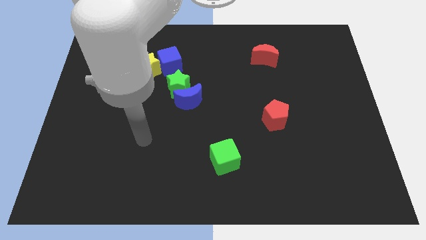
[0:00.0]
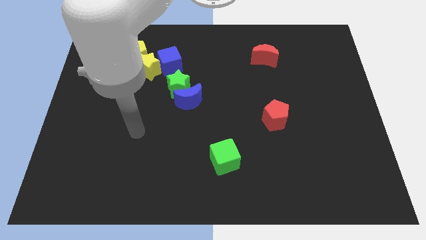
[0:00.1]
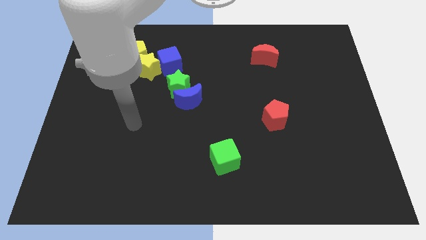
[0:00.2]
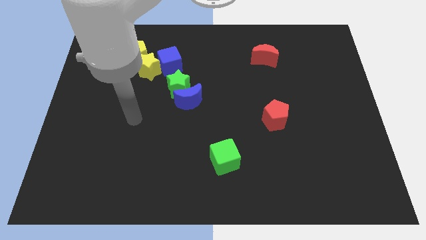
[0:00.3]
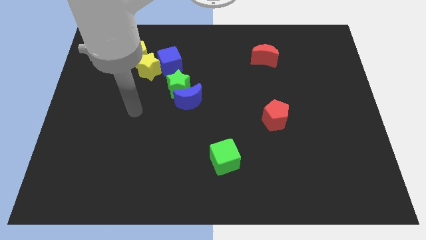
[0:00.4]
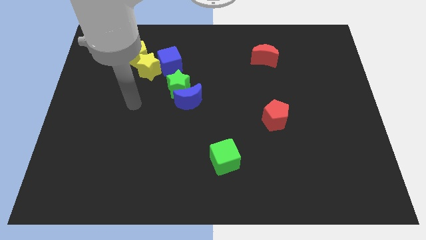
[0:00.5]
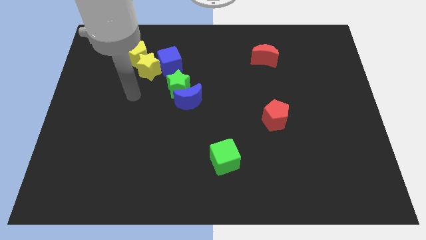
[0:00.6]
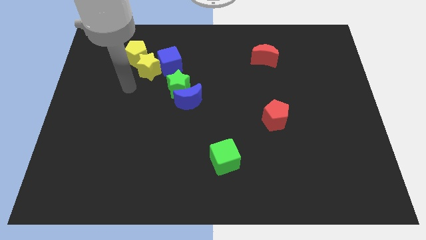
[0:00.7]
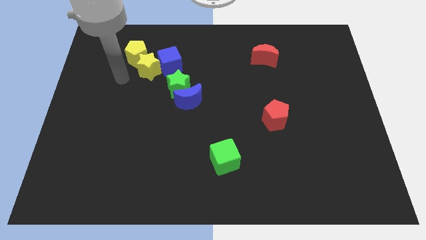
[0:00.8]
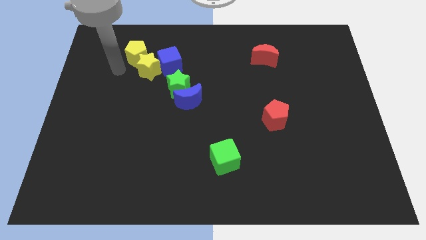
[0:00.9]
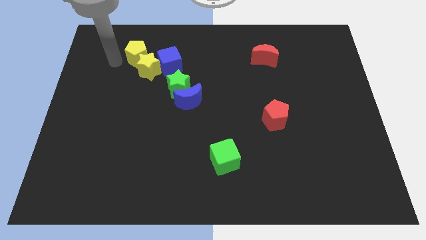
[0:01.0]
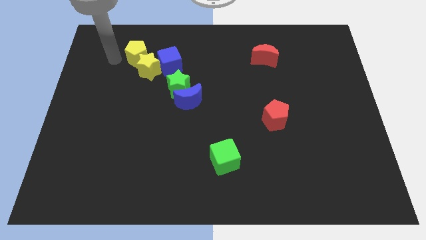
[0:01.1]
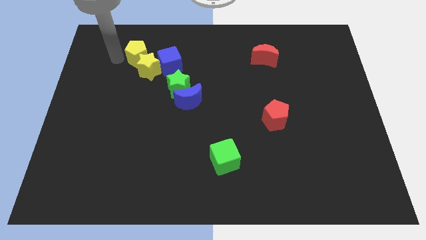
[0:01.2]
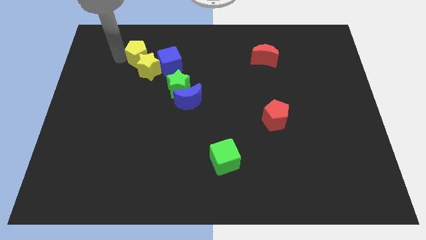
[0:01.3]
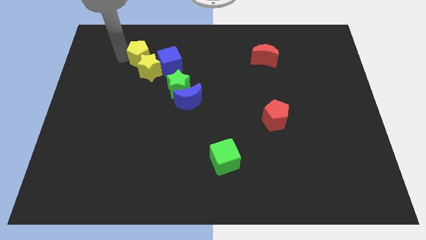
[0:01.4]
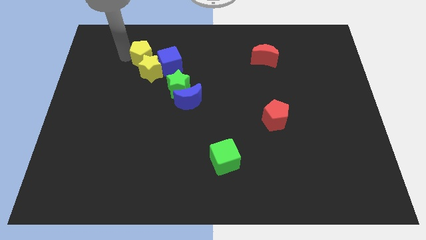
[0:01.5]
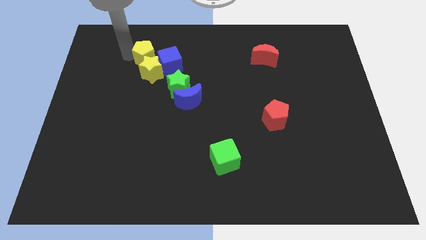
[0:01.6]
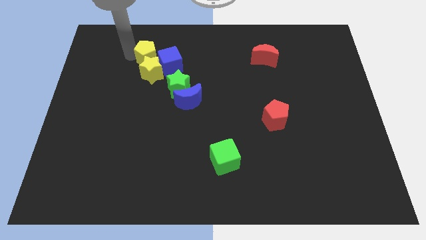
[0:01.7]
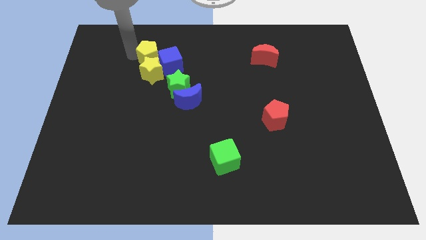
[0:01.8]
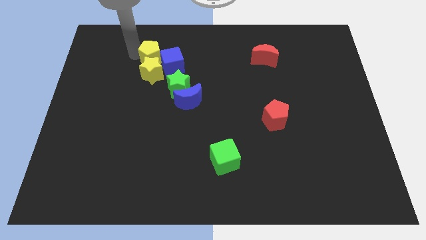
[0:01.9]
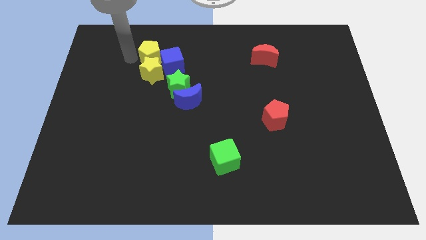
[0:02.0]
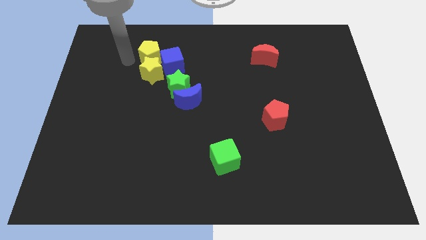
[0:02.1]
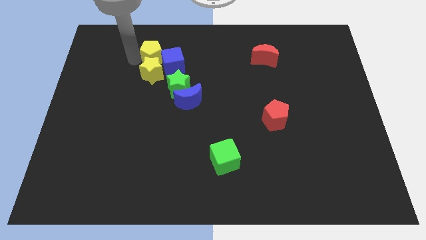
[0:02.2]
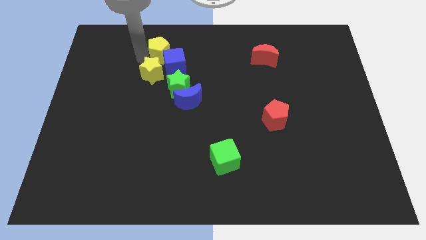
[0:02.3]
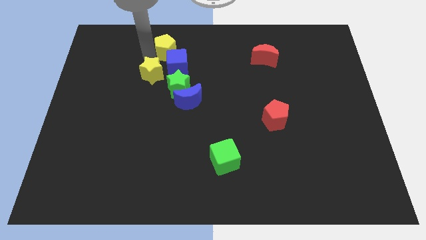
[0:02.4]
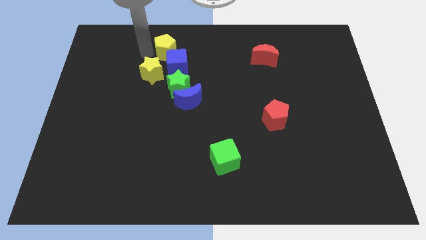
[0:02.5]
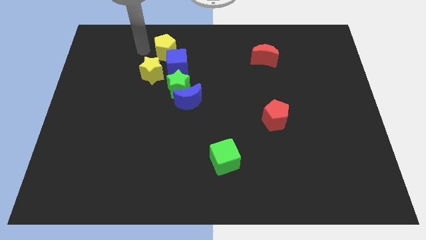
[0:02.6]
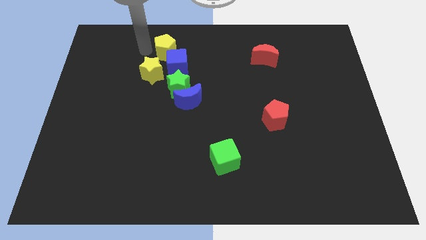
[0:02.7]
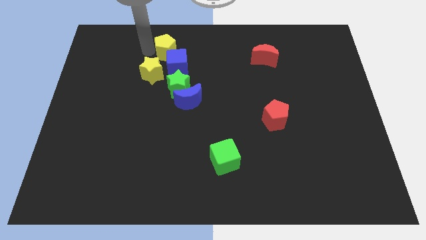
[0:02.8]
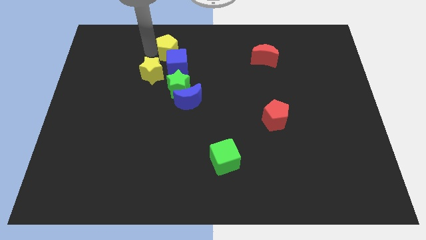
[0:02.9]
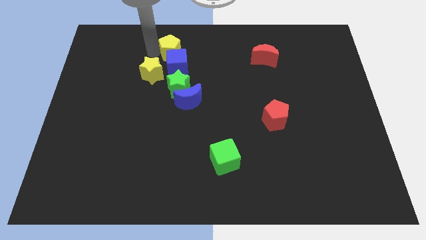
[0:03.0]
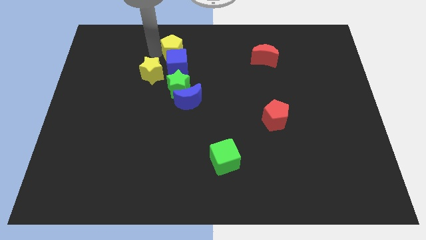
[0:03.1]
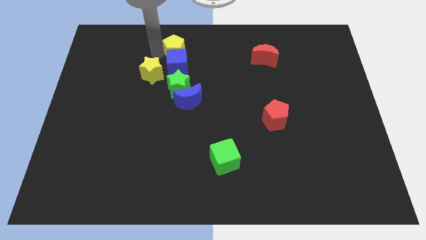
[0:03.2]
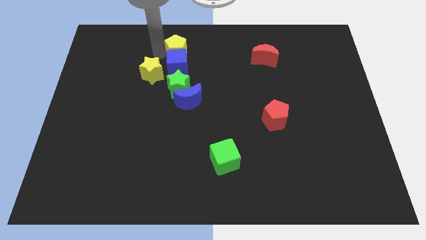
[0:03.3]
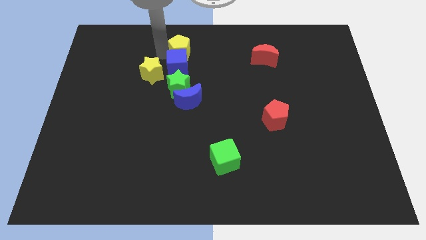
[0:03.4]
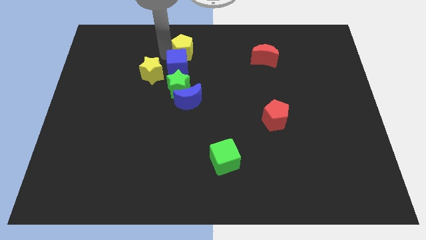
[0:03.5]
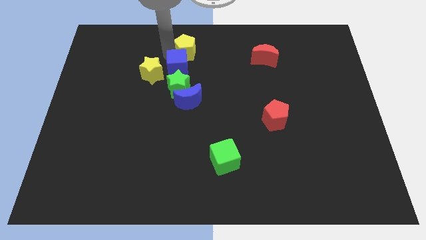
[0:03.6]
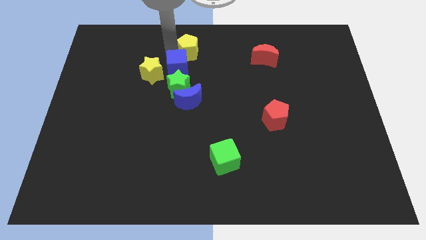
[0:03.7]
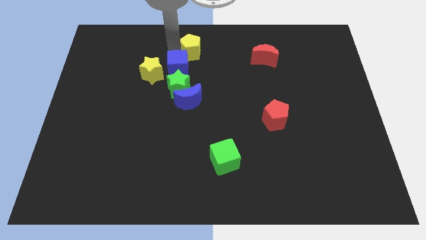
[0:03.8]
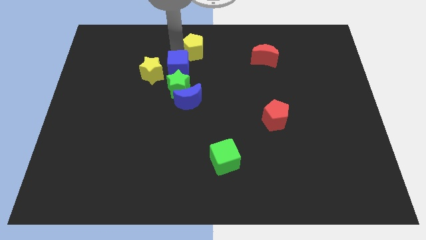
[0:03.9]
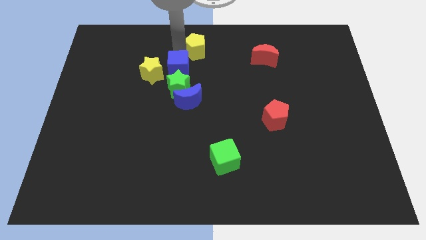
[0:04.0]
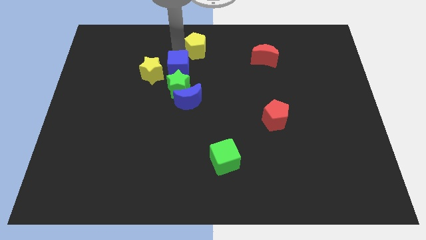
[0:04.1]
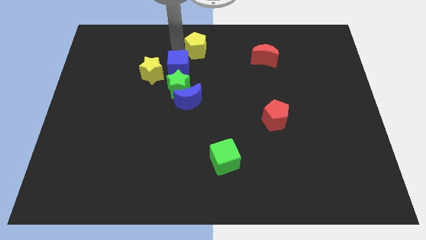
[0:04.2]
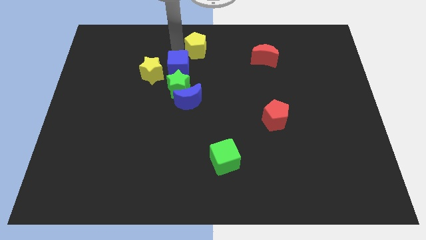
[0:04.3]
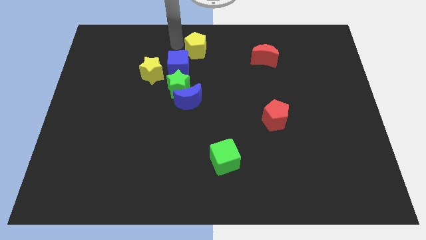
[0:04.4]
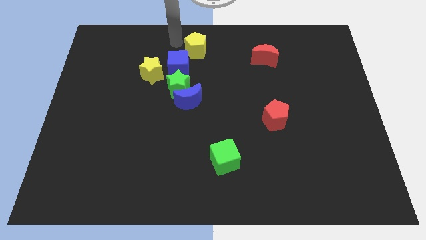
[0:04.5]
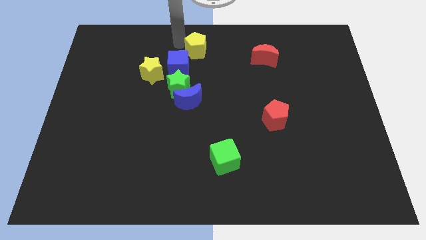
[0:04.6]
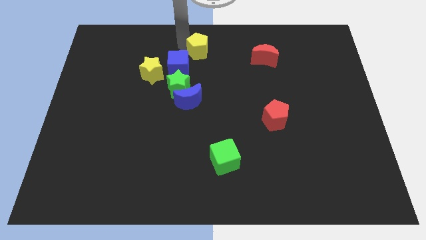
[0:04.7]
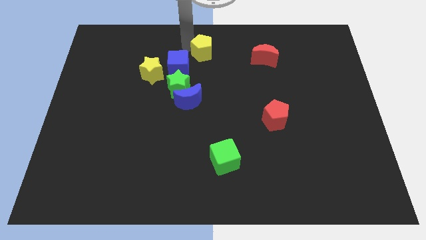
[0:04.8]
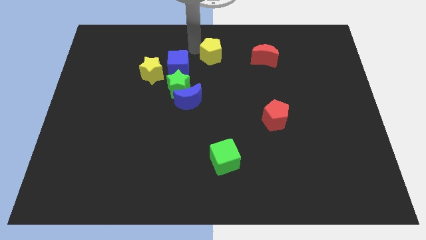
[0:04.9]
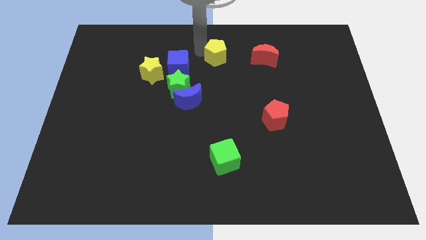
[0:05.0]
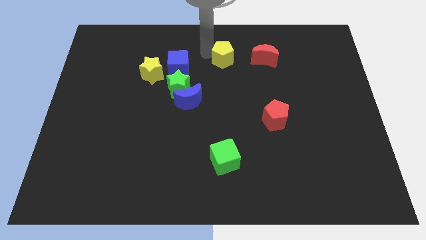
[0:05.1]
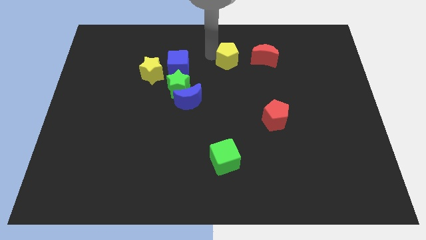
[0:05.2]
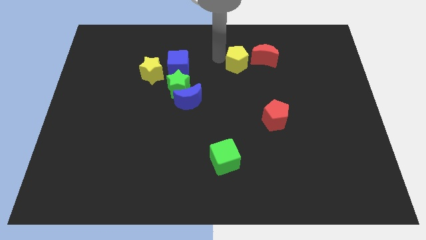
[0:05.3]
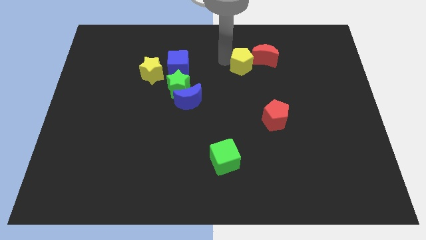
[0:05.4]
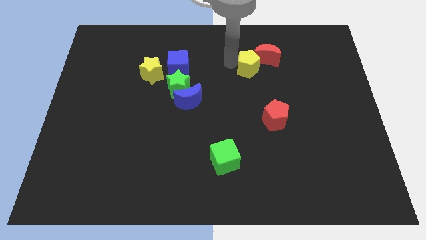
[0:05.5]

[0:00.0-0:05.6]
slide the yellow pentagon close to the red moon
